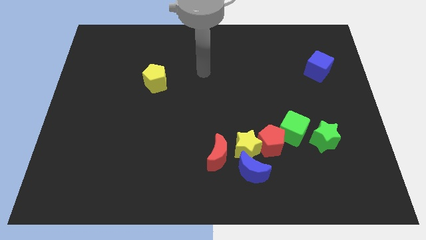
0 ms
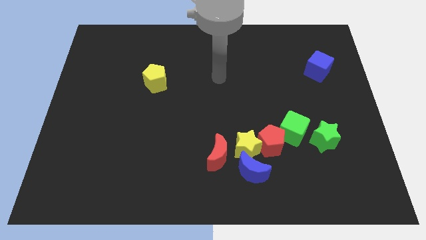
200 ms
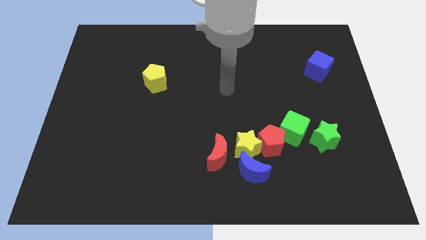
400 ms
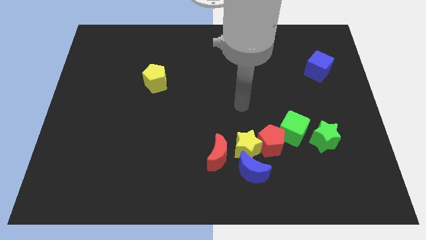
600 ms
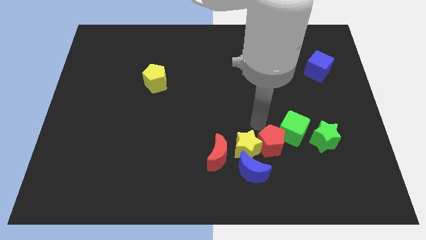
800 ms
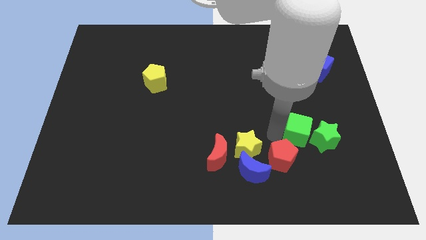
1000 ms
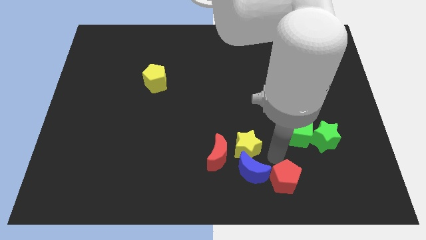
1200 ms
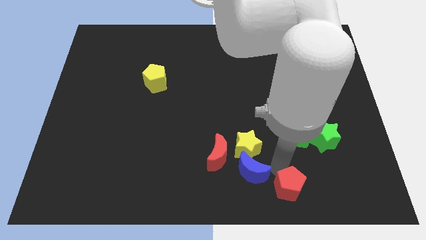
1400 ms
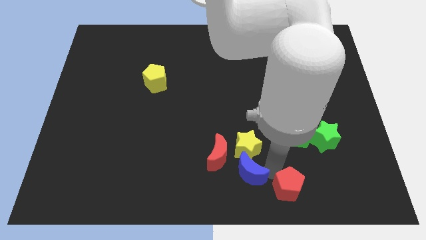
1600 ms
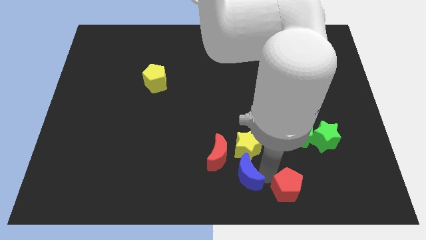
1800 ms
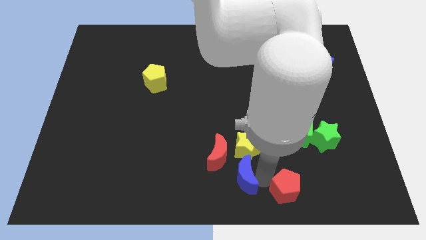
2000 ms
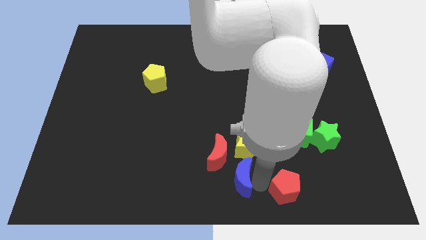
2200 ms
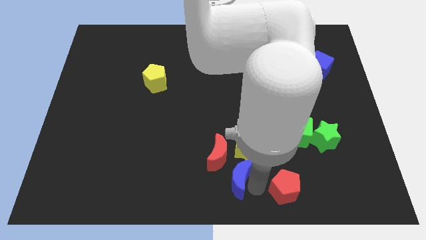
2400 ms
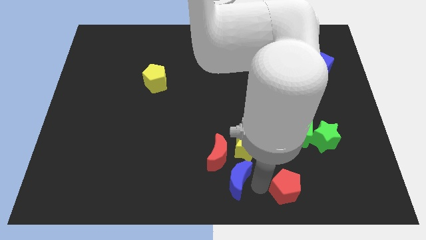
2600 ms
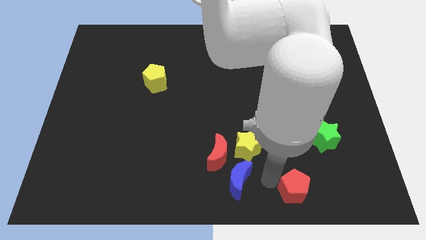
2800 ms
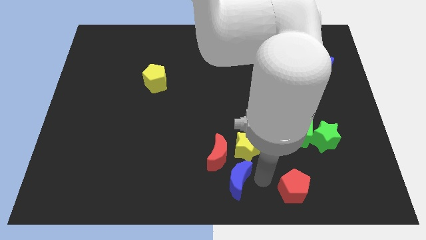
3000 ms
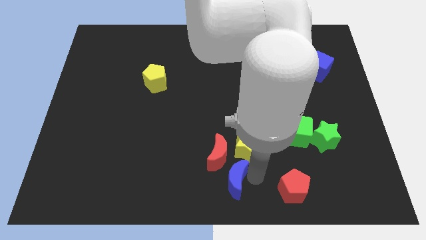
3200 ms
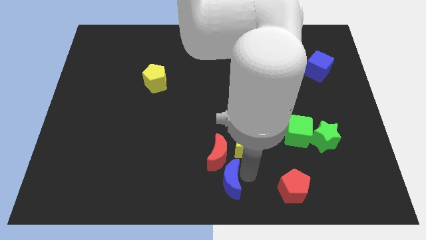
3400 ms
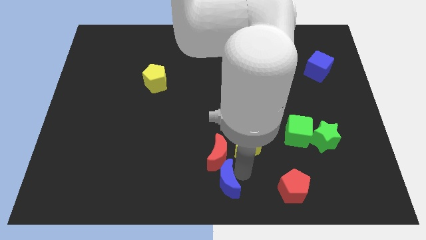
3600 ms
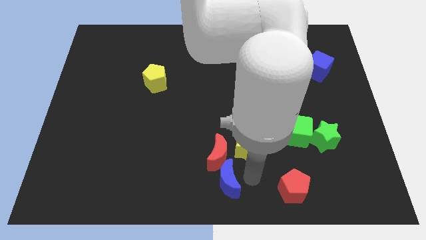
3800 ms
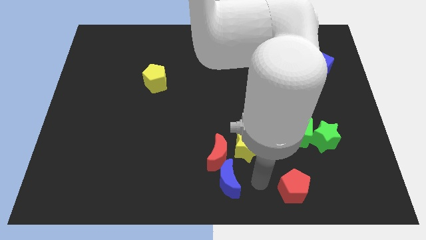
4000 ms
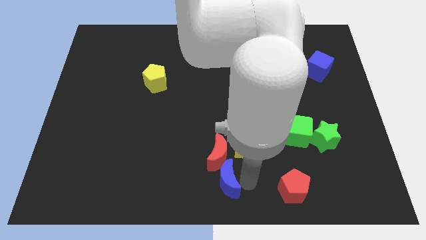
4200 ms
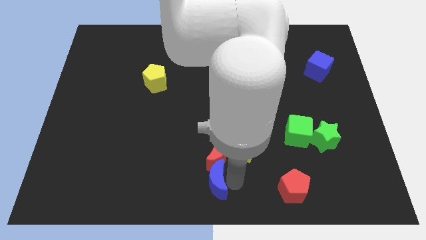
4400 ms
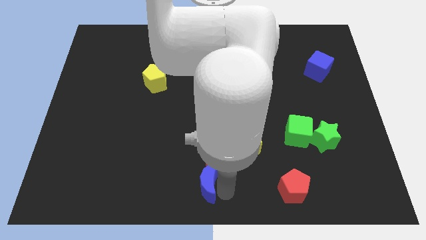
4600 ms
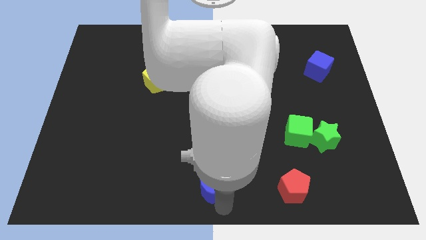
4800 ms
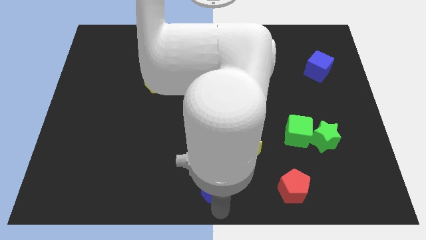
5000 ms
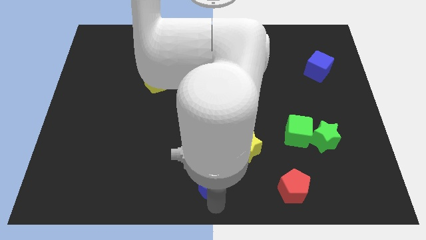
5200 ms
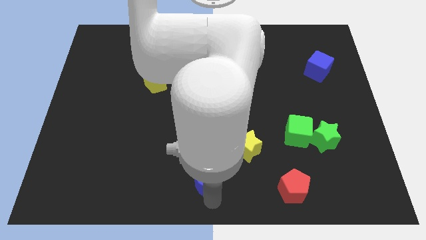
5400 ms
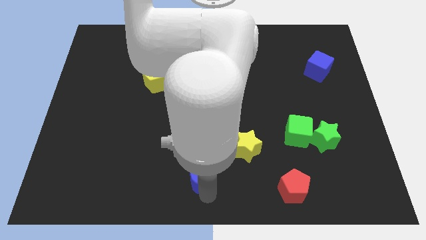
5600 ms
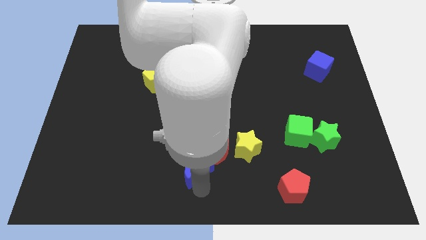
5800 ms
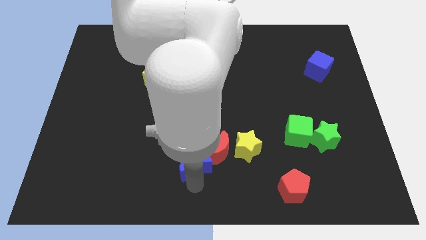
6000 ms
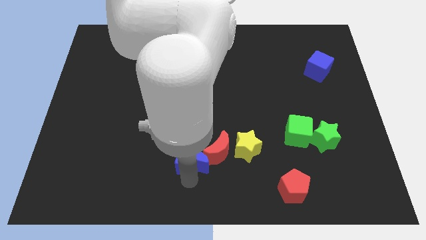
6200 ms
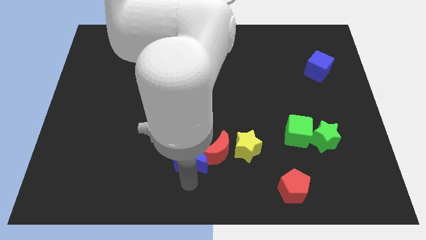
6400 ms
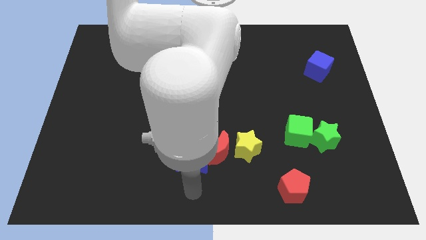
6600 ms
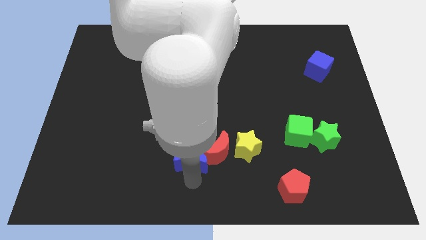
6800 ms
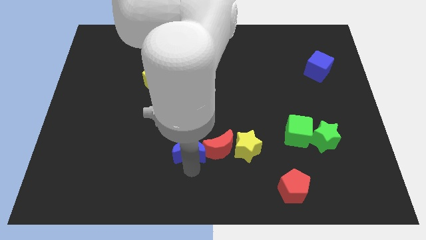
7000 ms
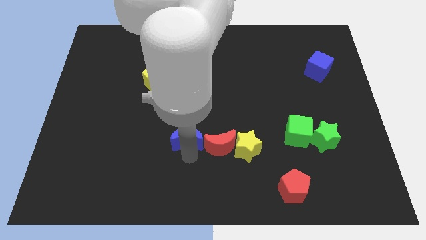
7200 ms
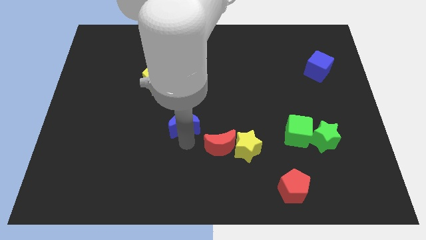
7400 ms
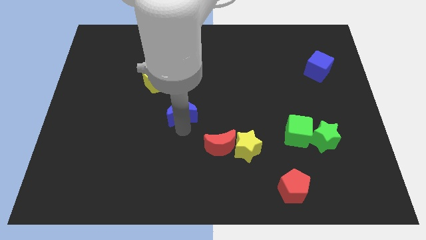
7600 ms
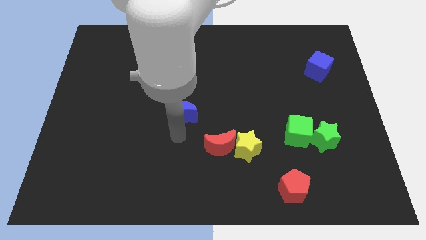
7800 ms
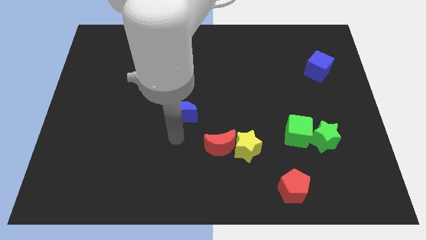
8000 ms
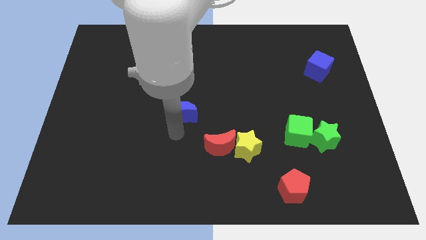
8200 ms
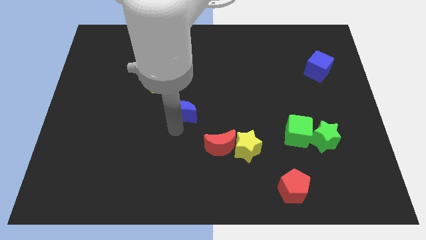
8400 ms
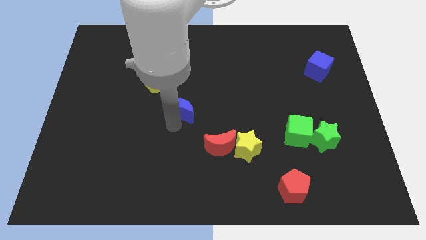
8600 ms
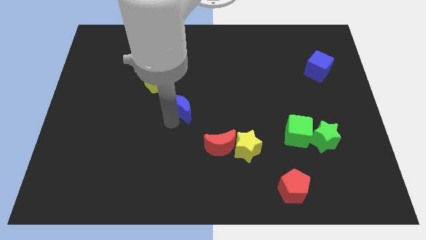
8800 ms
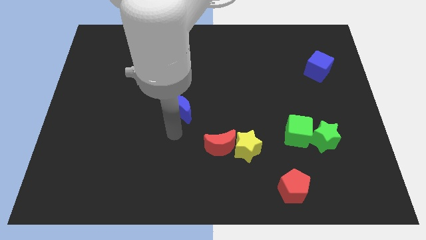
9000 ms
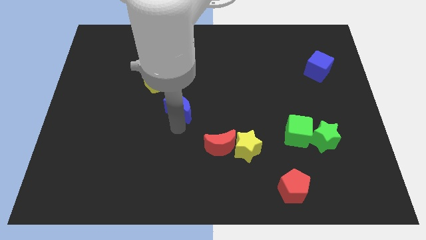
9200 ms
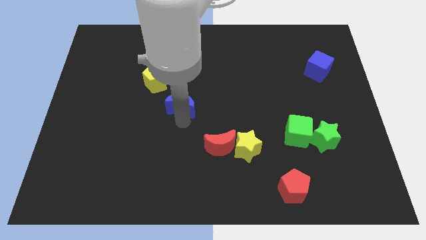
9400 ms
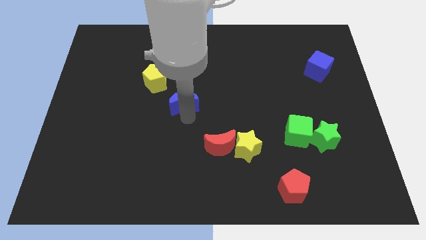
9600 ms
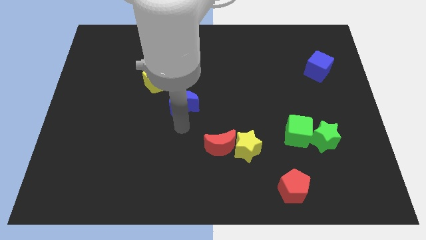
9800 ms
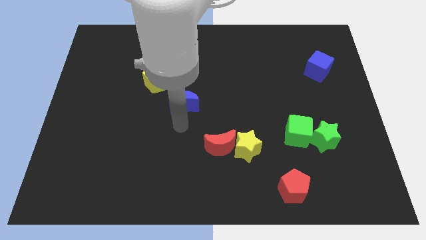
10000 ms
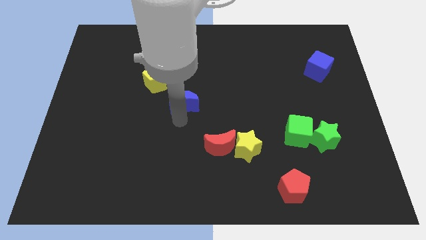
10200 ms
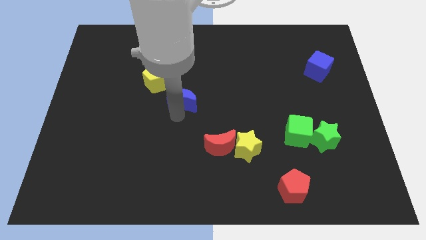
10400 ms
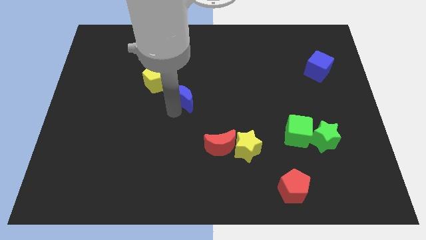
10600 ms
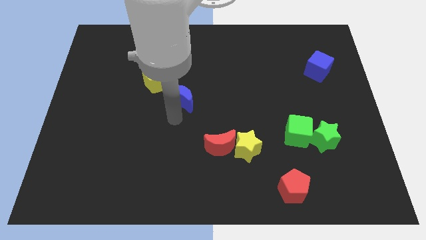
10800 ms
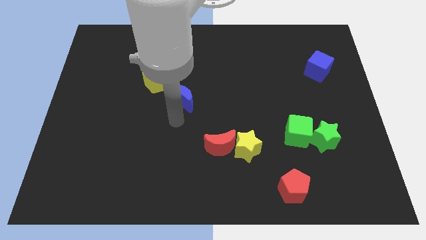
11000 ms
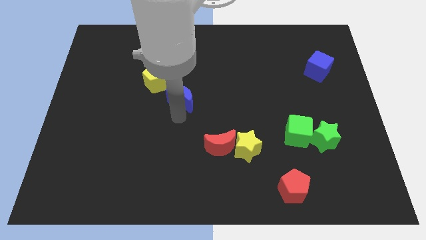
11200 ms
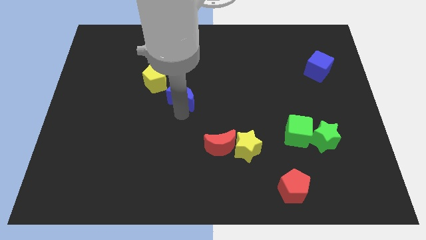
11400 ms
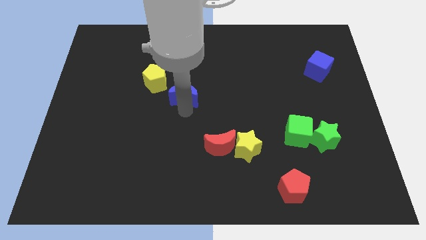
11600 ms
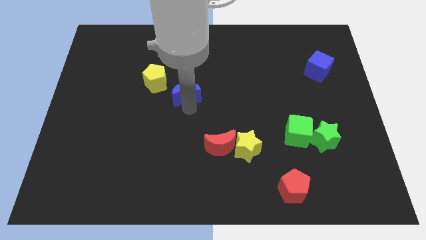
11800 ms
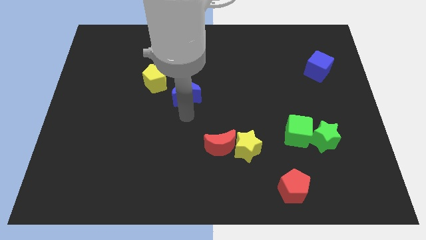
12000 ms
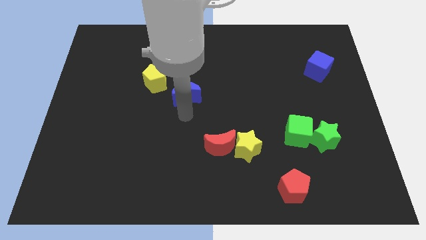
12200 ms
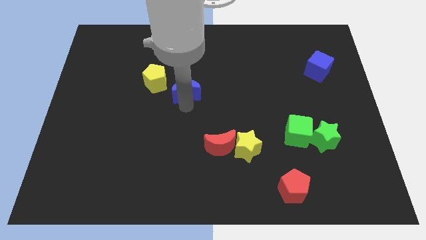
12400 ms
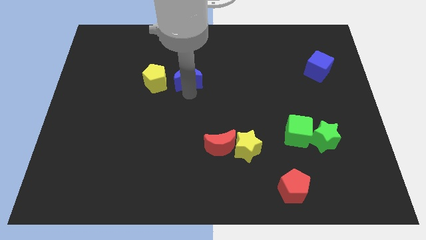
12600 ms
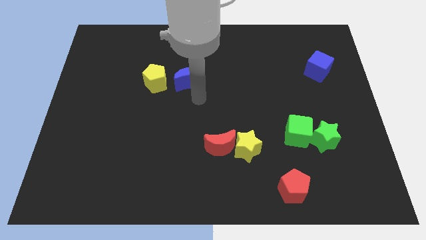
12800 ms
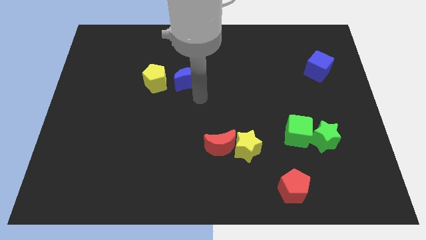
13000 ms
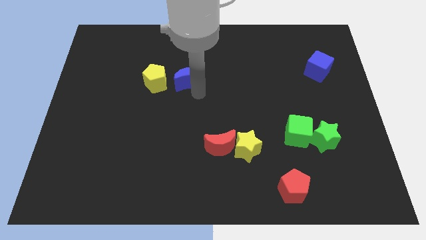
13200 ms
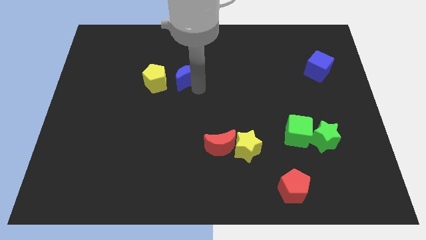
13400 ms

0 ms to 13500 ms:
put the blue moon diagonally up and to the right of the yellow pentagon

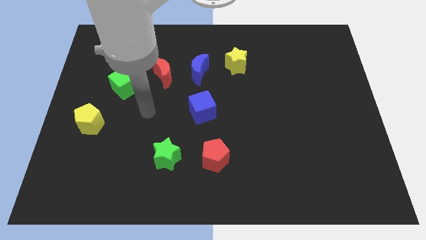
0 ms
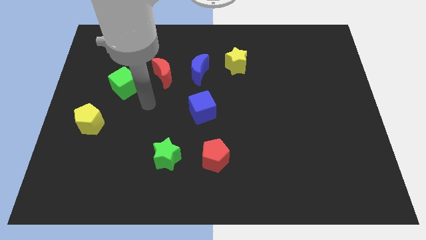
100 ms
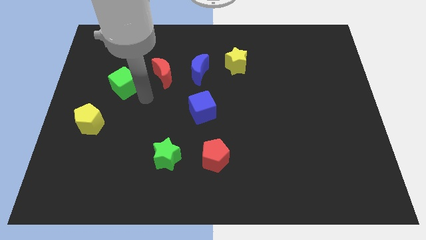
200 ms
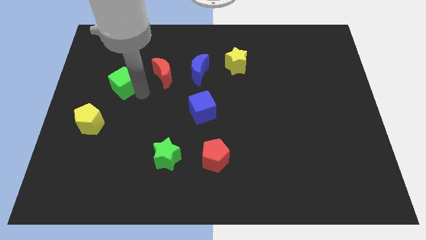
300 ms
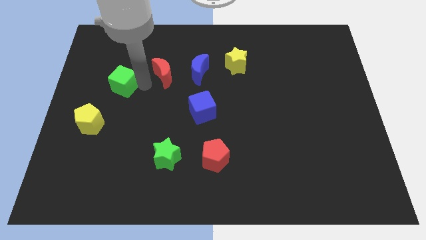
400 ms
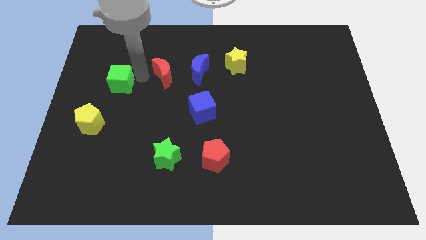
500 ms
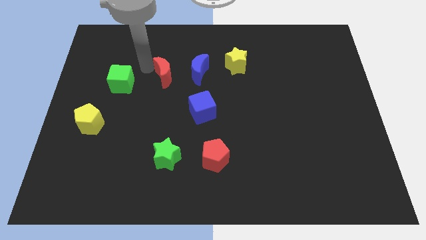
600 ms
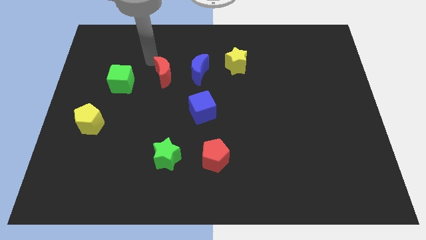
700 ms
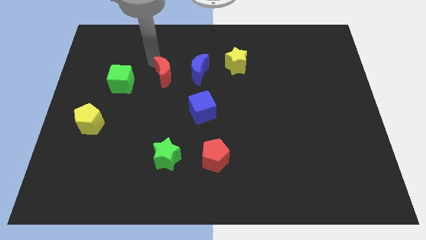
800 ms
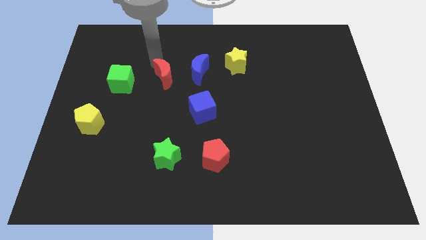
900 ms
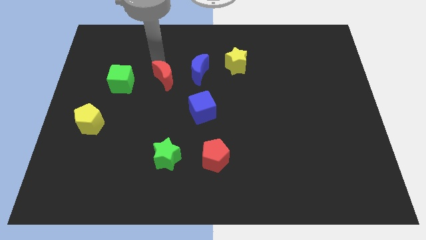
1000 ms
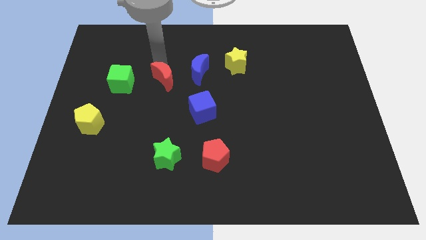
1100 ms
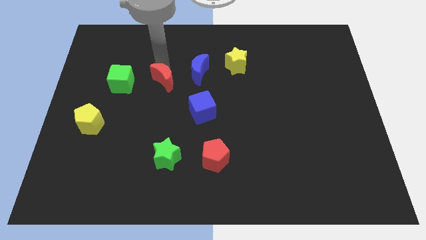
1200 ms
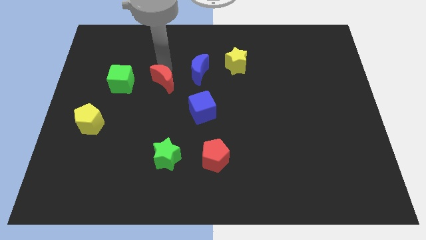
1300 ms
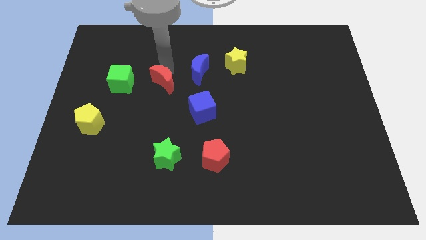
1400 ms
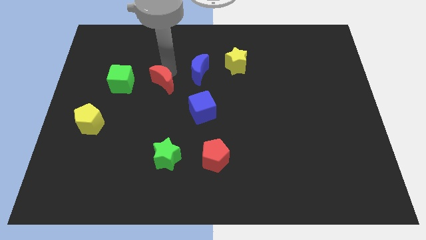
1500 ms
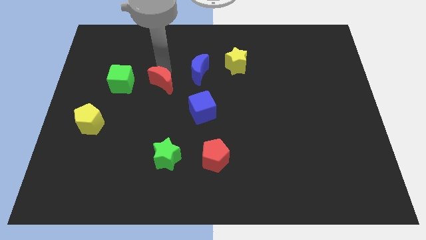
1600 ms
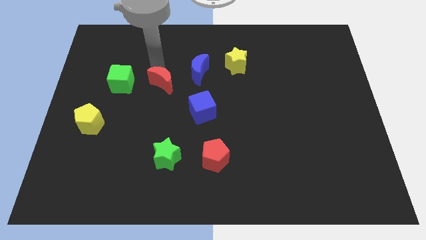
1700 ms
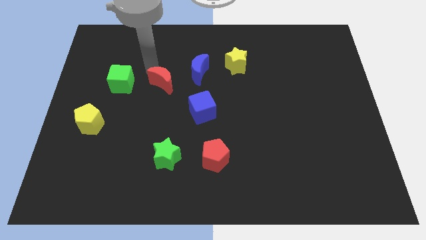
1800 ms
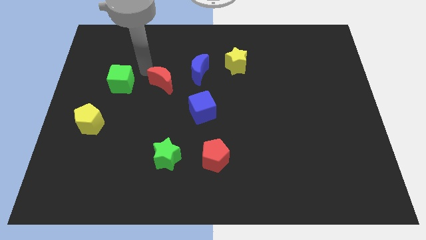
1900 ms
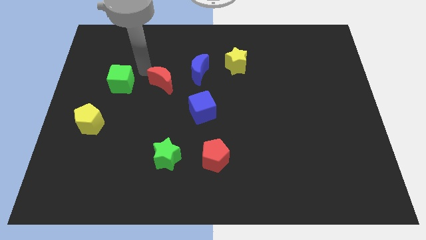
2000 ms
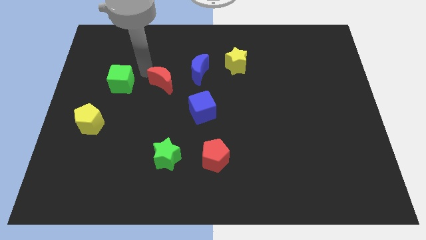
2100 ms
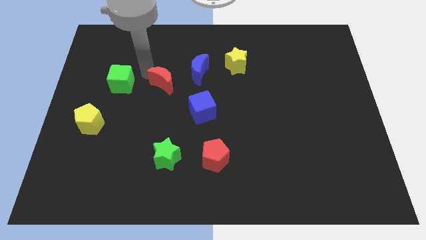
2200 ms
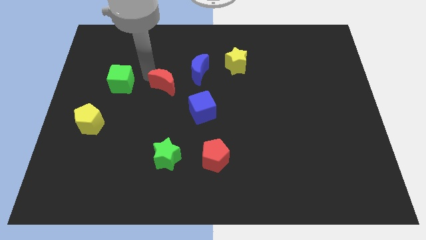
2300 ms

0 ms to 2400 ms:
slide the red moon to the top left side of the blue cube
